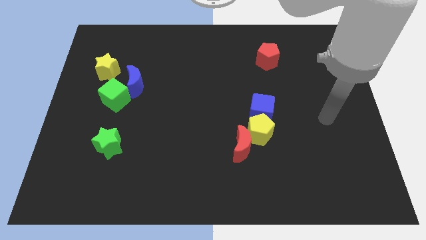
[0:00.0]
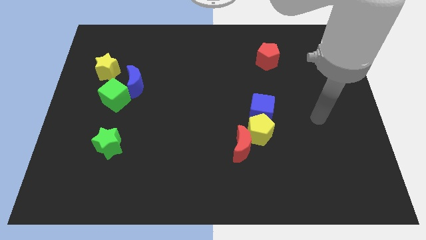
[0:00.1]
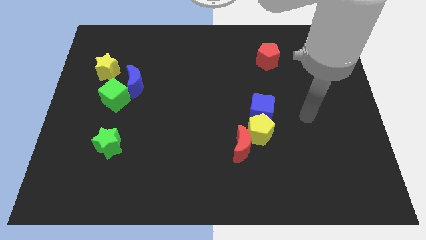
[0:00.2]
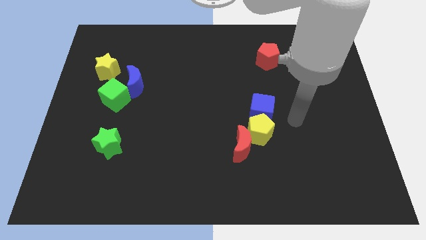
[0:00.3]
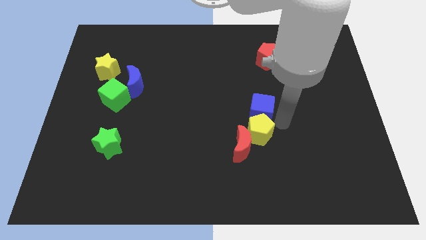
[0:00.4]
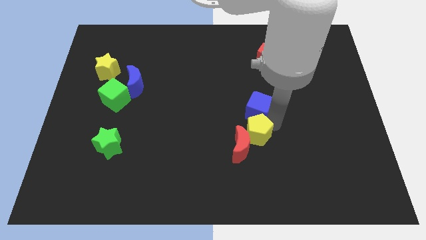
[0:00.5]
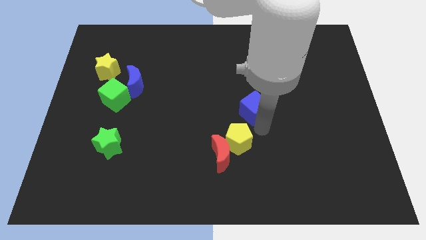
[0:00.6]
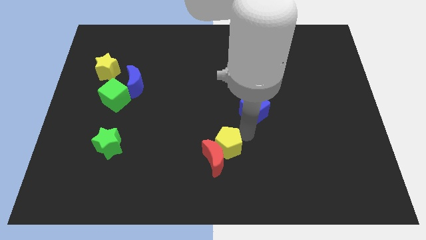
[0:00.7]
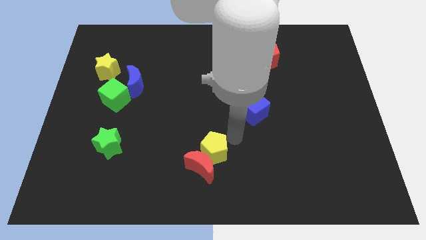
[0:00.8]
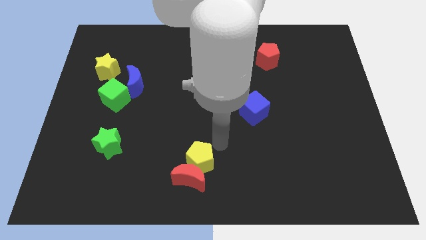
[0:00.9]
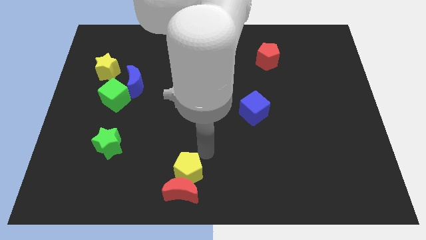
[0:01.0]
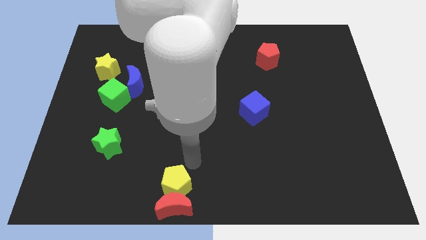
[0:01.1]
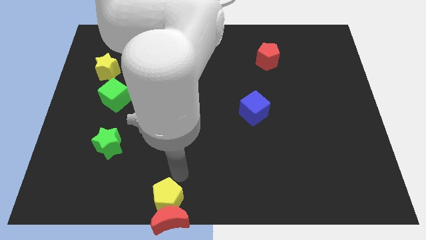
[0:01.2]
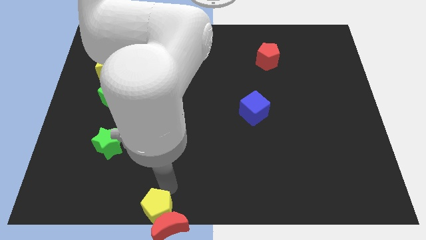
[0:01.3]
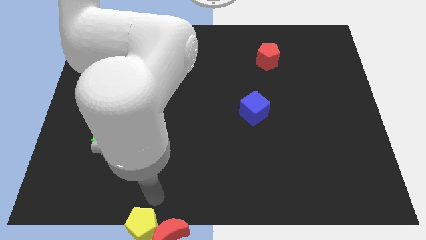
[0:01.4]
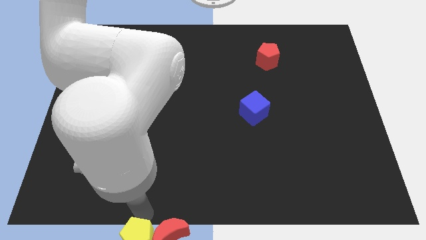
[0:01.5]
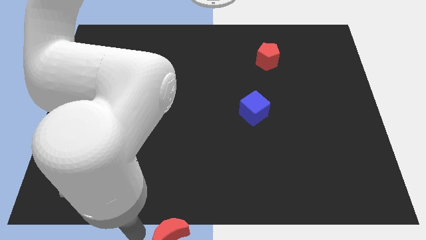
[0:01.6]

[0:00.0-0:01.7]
separate the red moon from the yellow pentagon

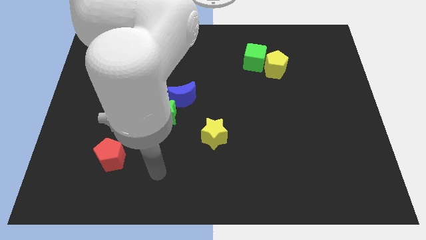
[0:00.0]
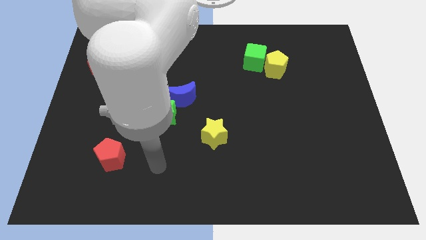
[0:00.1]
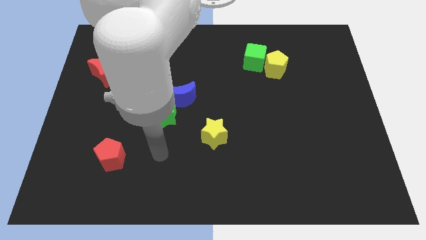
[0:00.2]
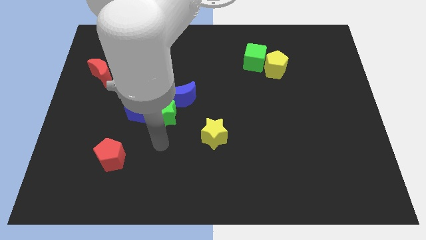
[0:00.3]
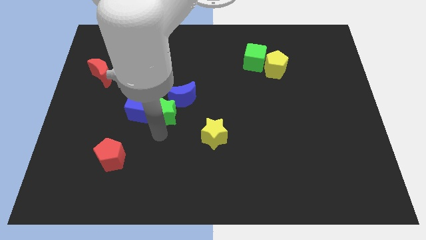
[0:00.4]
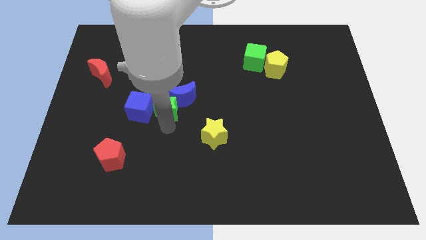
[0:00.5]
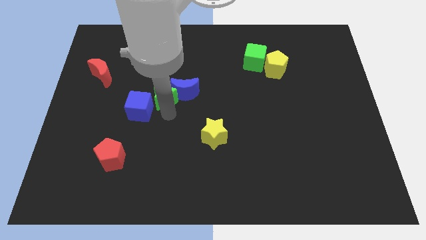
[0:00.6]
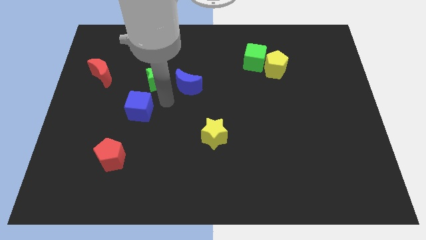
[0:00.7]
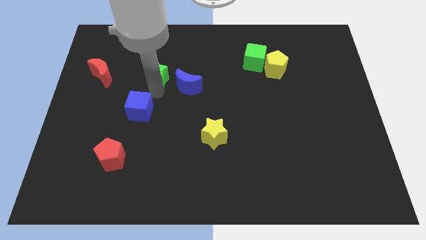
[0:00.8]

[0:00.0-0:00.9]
move the blue cube away from the green star

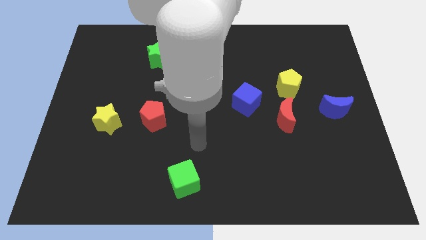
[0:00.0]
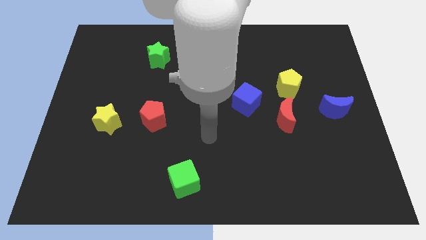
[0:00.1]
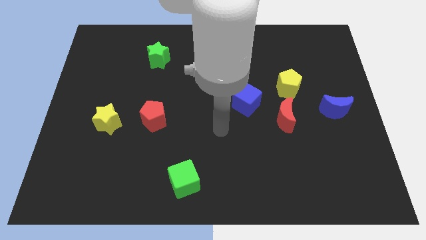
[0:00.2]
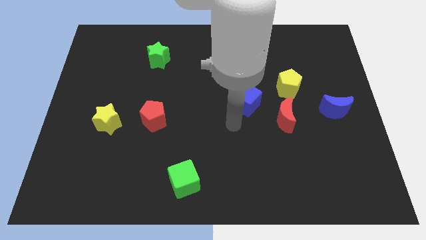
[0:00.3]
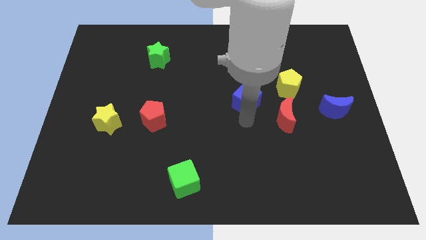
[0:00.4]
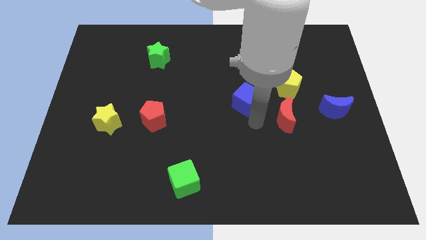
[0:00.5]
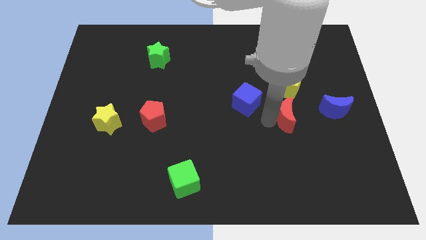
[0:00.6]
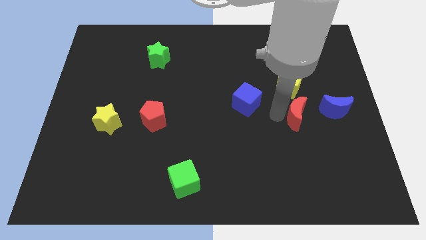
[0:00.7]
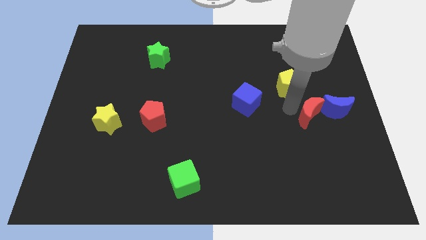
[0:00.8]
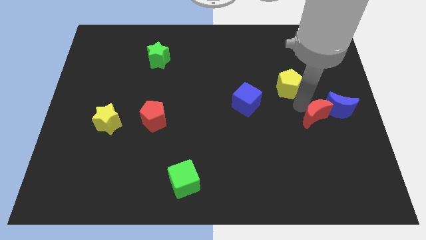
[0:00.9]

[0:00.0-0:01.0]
move the yellow pentagon away from the red moon

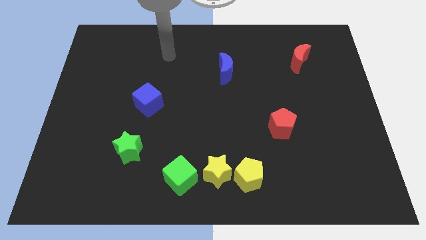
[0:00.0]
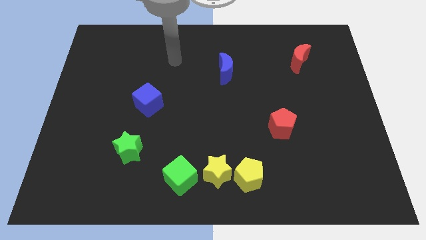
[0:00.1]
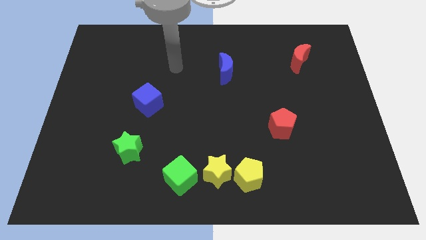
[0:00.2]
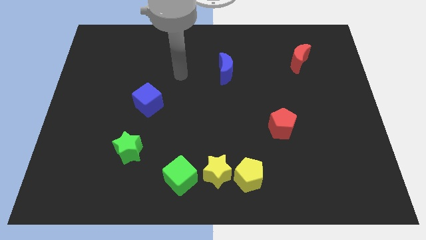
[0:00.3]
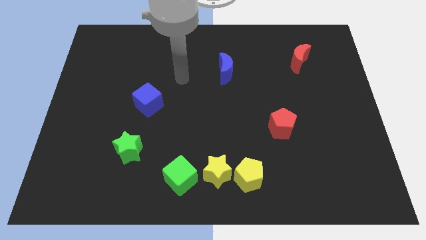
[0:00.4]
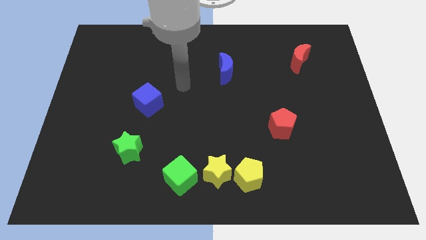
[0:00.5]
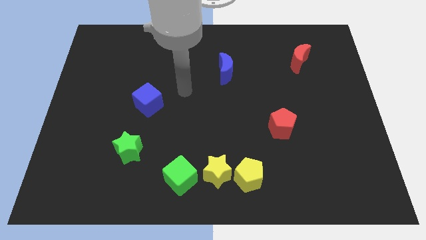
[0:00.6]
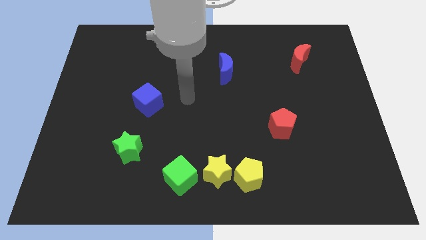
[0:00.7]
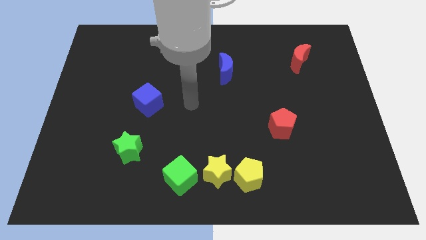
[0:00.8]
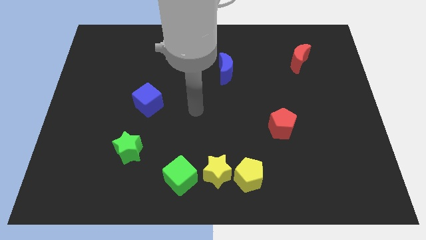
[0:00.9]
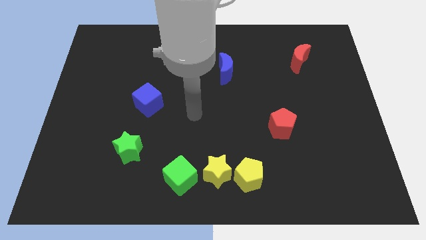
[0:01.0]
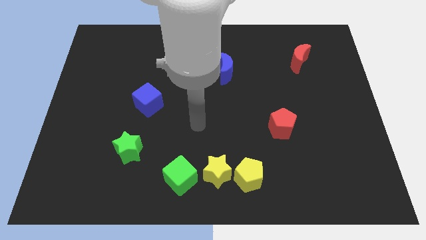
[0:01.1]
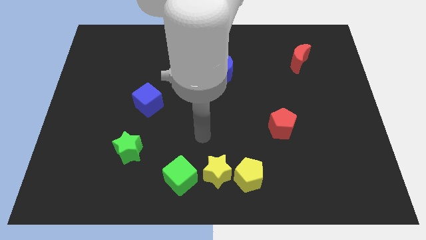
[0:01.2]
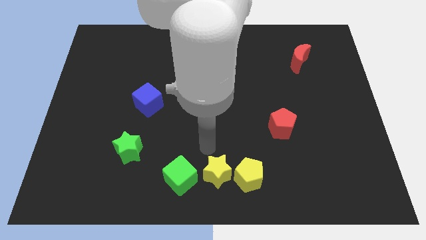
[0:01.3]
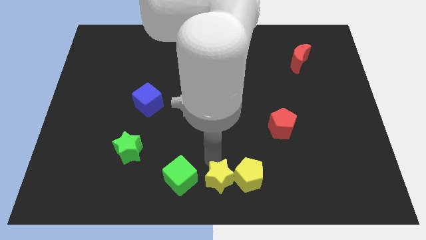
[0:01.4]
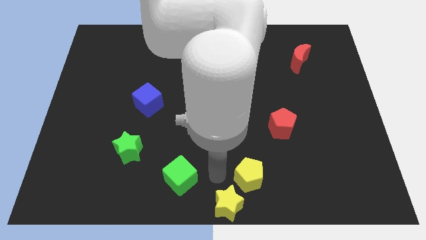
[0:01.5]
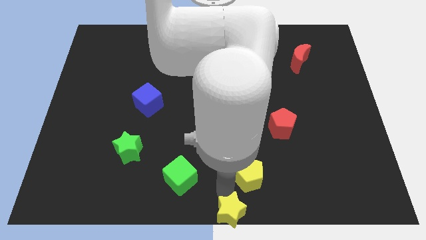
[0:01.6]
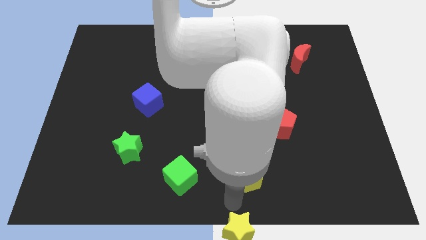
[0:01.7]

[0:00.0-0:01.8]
pull the yellow pentagon apart from the yellow star

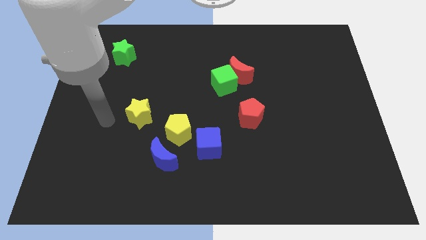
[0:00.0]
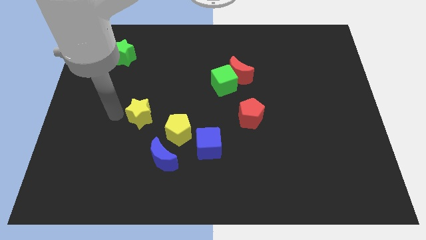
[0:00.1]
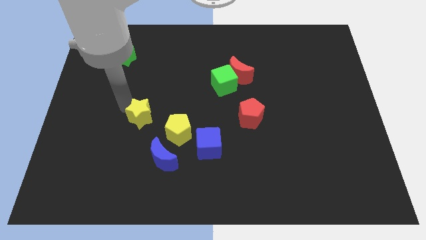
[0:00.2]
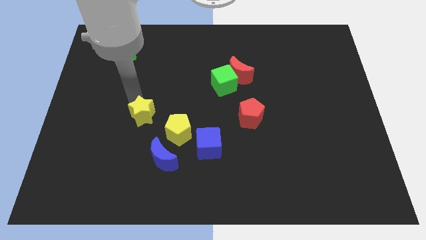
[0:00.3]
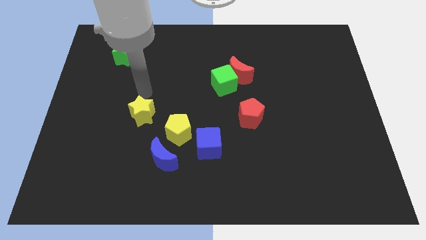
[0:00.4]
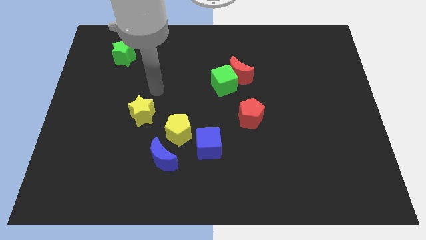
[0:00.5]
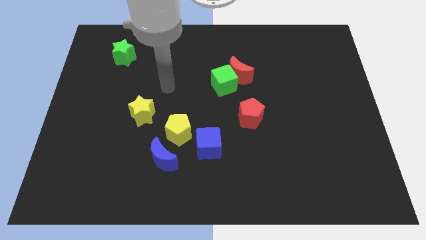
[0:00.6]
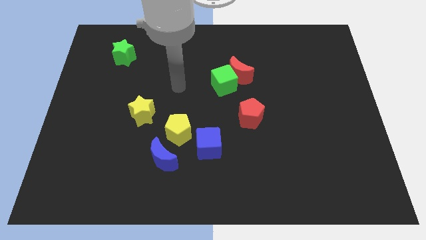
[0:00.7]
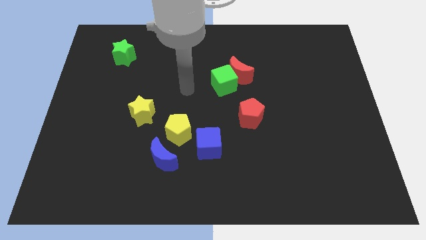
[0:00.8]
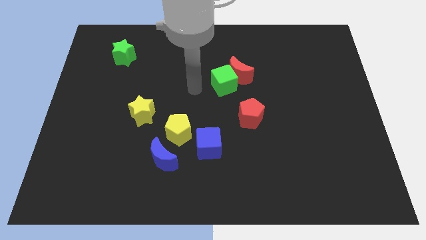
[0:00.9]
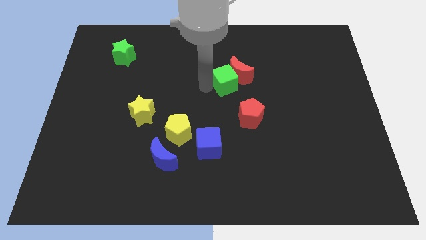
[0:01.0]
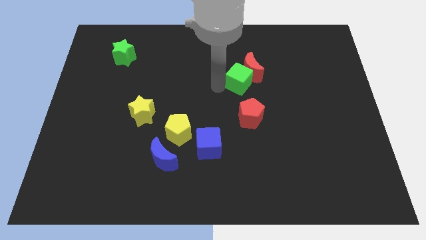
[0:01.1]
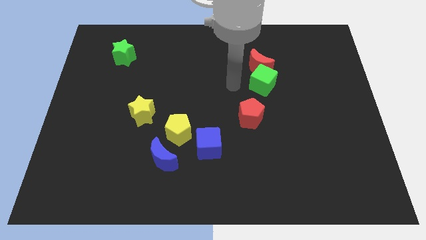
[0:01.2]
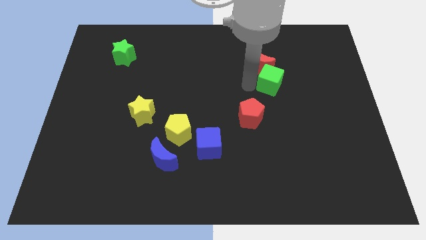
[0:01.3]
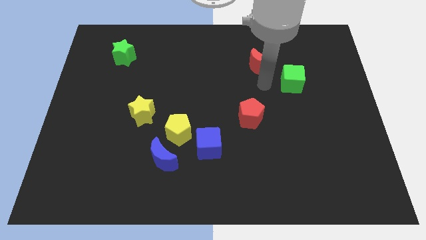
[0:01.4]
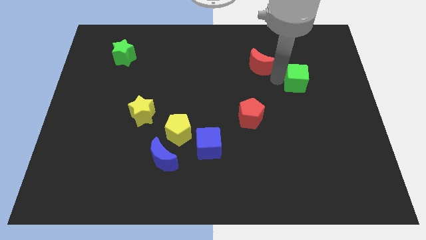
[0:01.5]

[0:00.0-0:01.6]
pull the red moon apart from the green cube

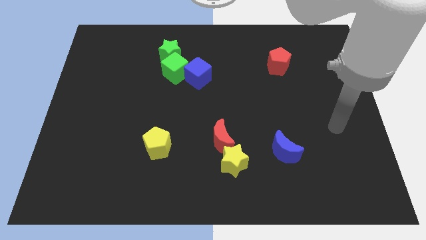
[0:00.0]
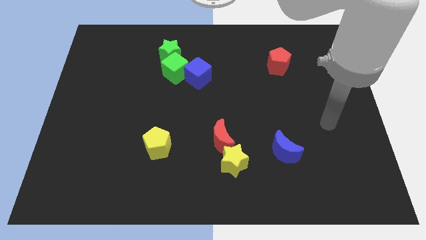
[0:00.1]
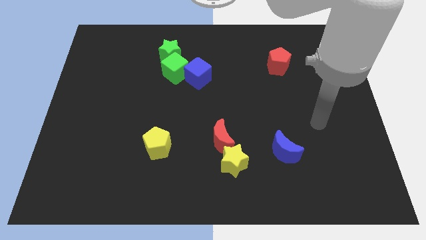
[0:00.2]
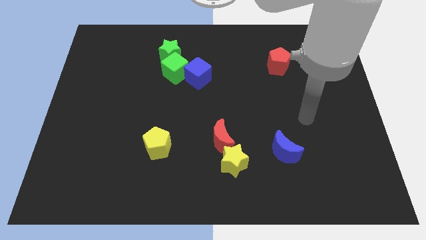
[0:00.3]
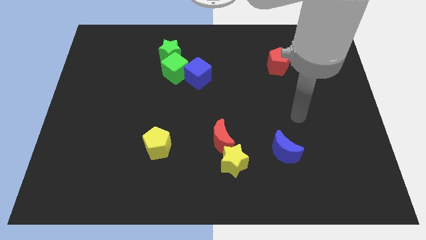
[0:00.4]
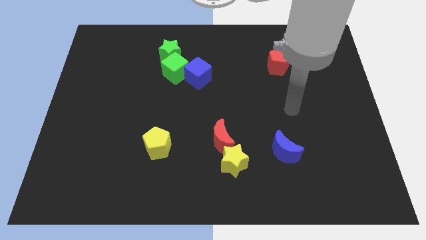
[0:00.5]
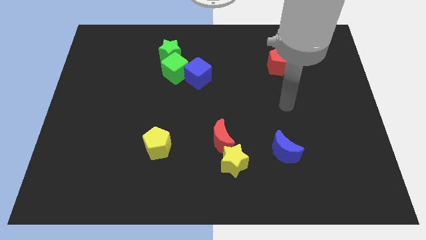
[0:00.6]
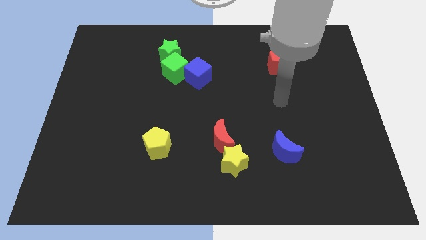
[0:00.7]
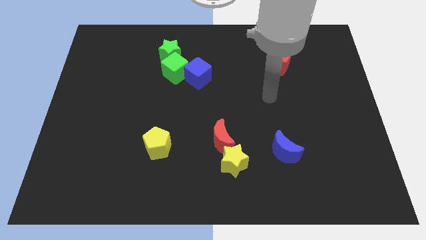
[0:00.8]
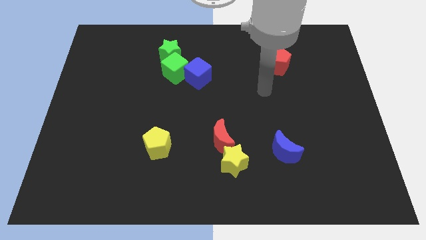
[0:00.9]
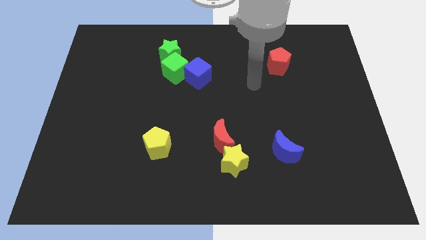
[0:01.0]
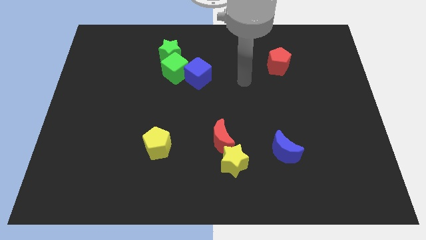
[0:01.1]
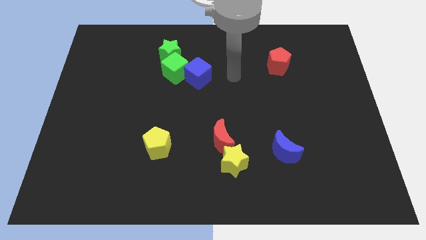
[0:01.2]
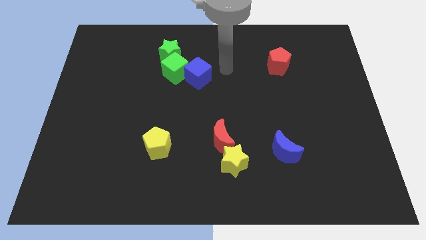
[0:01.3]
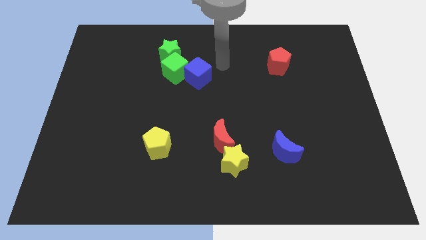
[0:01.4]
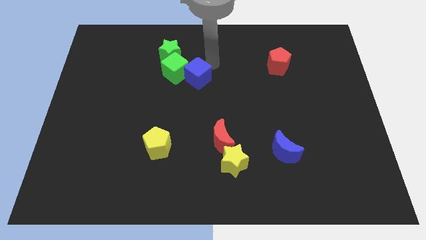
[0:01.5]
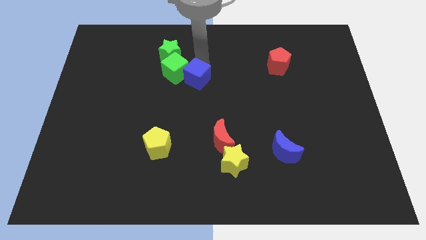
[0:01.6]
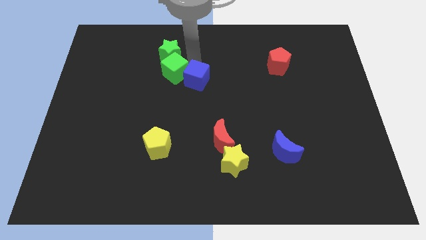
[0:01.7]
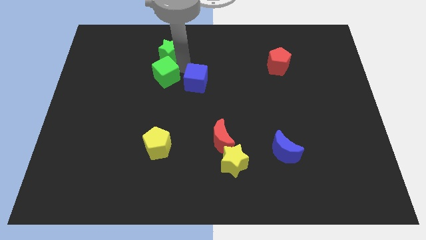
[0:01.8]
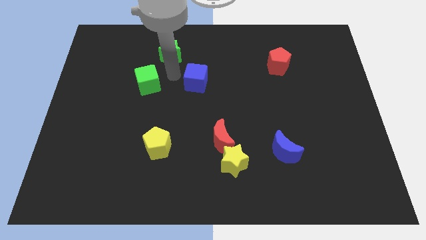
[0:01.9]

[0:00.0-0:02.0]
pull the blue cube apart from the green cube

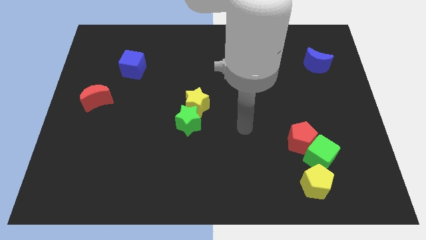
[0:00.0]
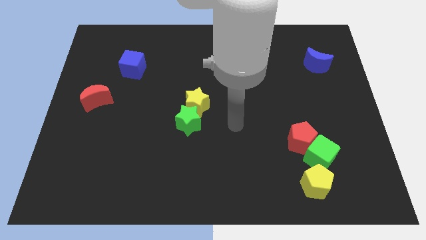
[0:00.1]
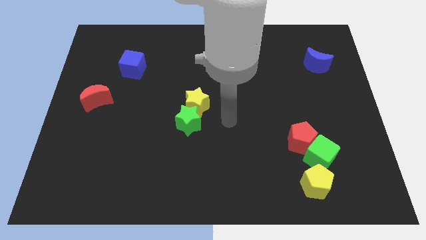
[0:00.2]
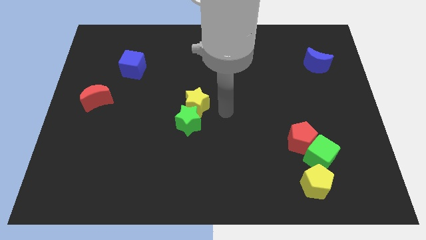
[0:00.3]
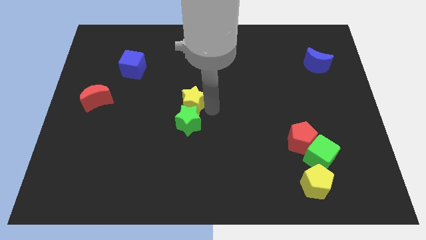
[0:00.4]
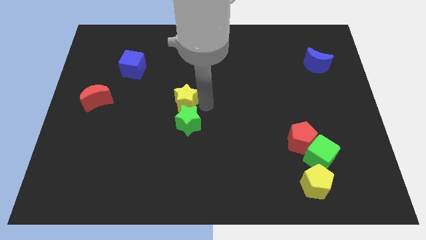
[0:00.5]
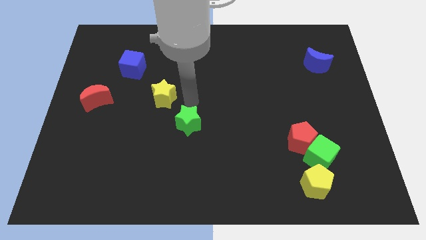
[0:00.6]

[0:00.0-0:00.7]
separate the green star from the yellow star
